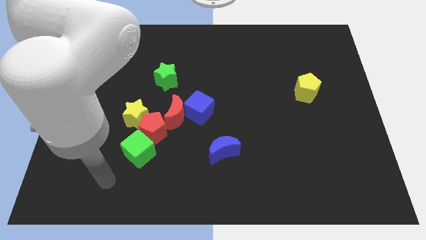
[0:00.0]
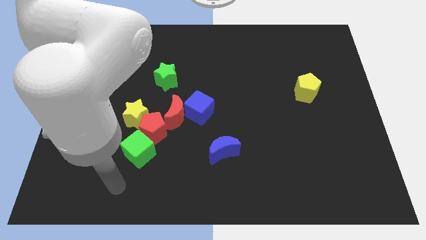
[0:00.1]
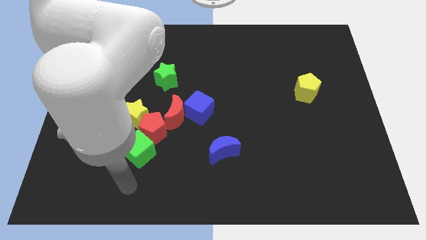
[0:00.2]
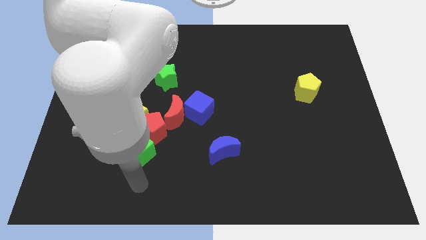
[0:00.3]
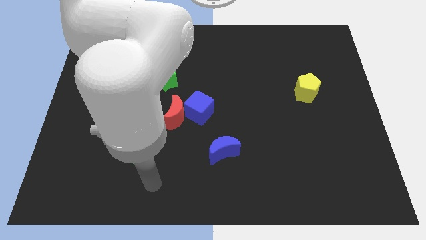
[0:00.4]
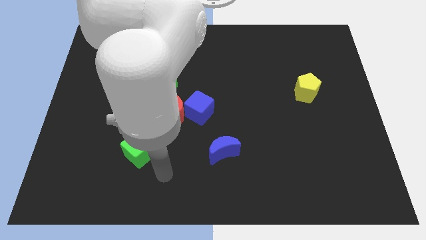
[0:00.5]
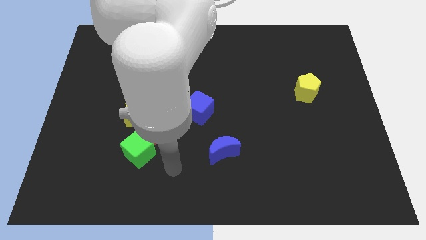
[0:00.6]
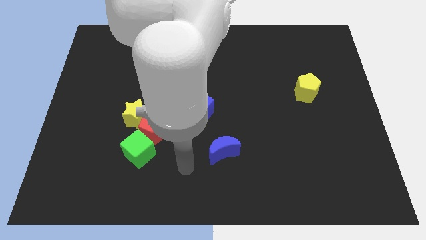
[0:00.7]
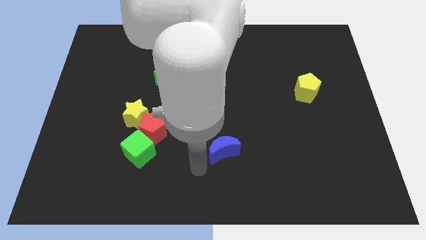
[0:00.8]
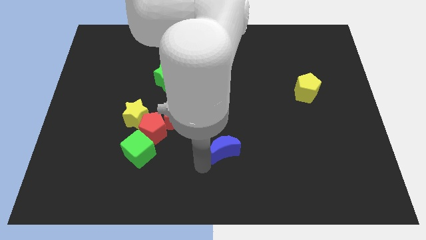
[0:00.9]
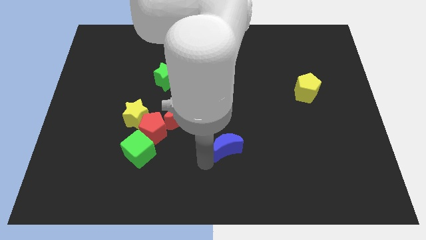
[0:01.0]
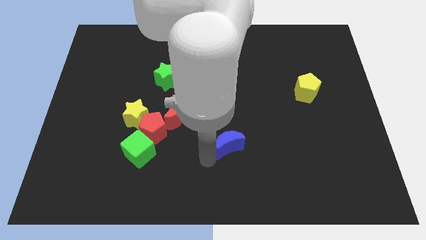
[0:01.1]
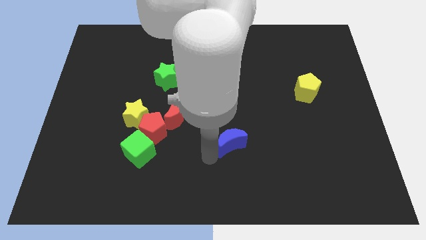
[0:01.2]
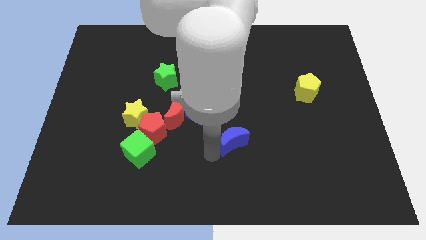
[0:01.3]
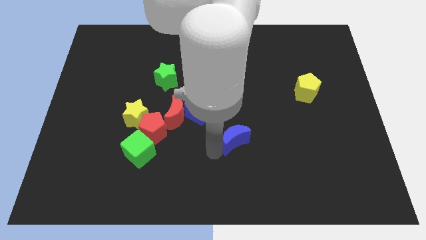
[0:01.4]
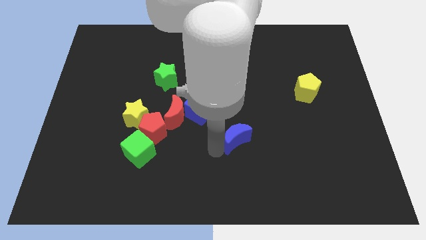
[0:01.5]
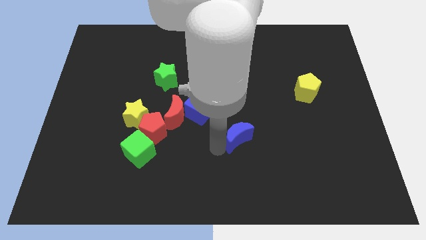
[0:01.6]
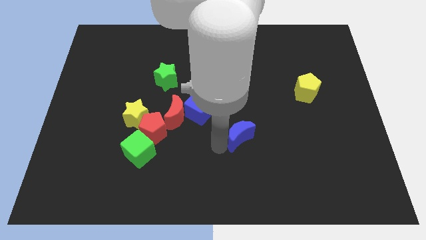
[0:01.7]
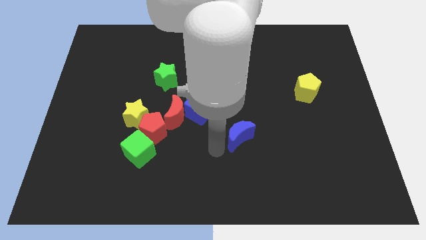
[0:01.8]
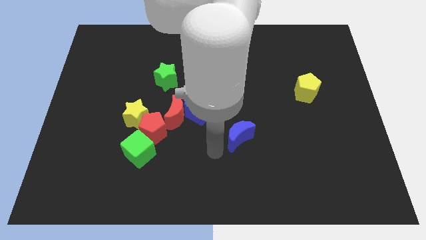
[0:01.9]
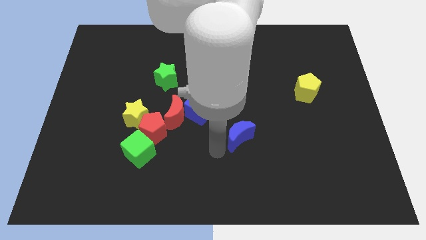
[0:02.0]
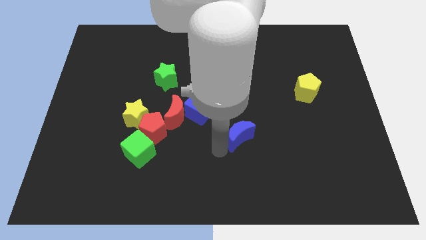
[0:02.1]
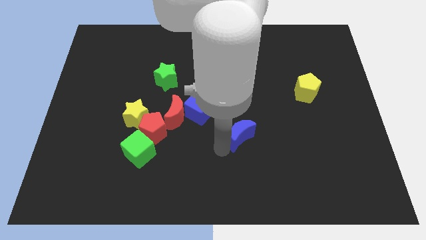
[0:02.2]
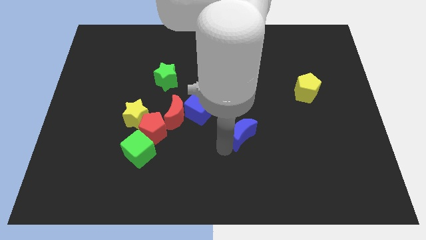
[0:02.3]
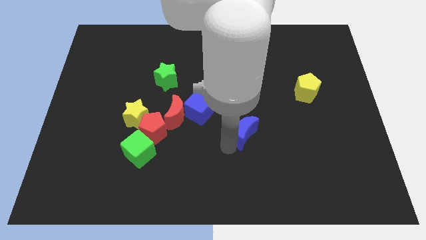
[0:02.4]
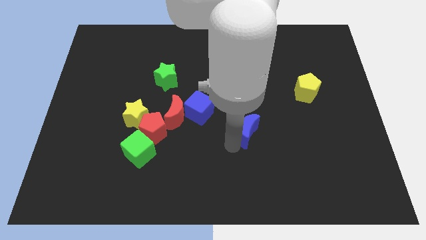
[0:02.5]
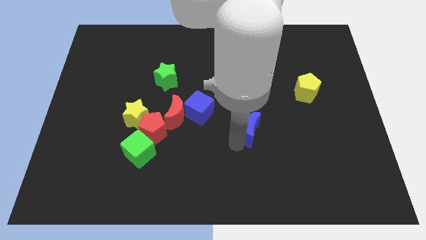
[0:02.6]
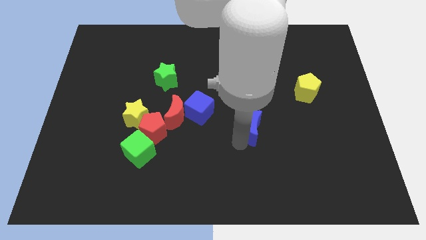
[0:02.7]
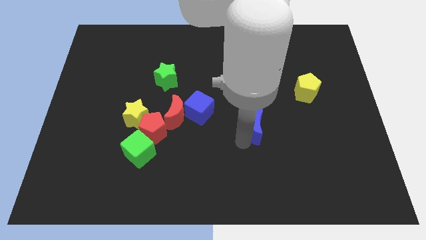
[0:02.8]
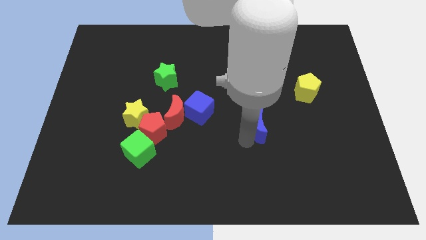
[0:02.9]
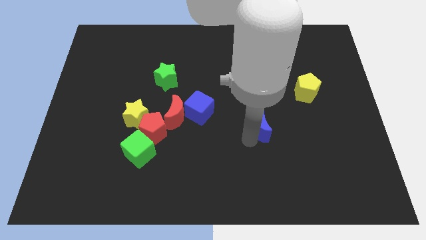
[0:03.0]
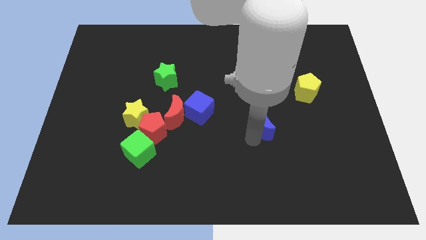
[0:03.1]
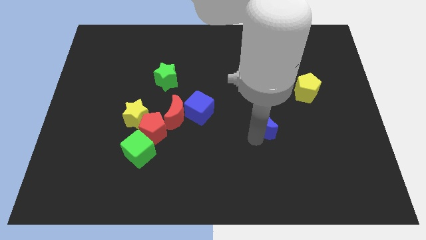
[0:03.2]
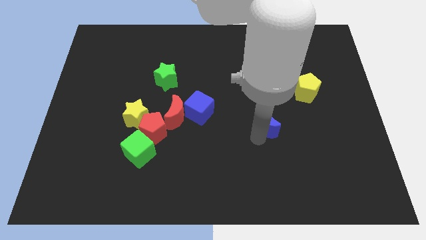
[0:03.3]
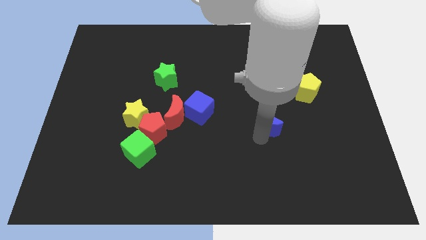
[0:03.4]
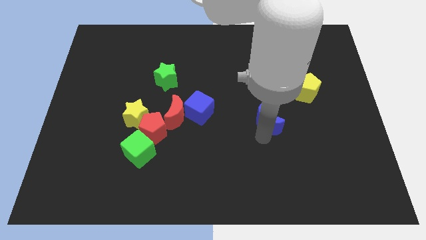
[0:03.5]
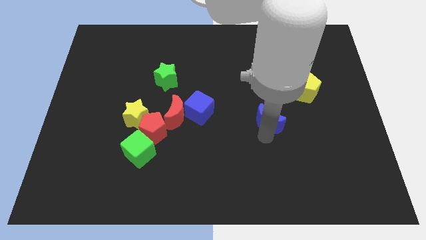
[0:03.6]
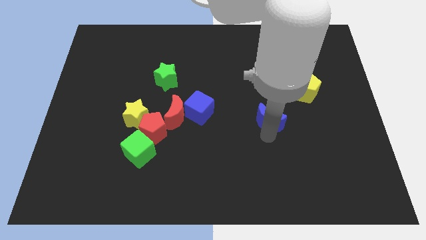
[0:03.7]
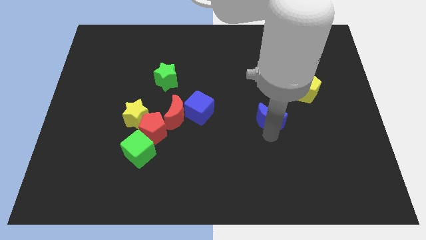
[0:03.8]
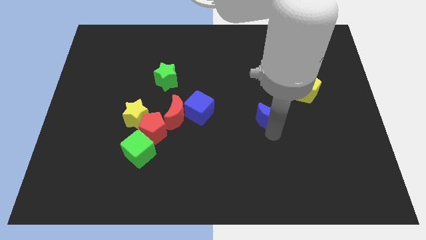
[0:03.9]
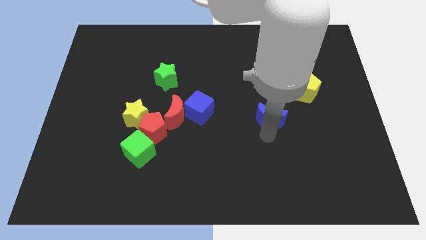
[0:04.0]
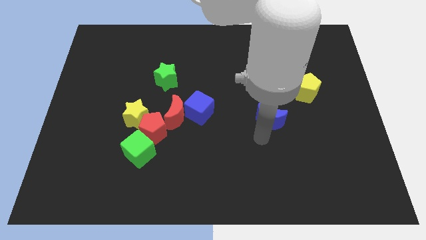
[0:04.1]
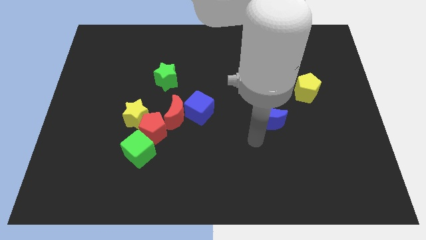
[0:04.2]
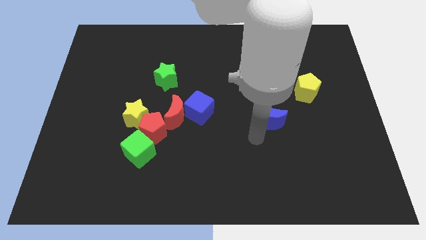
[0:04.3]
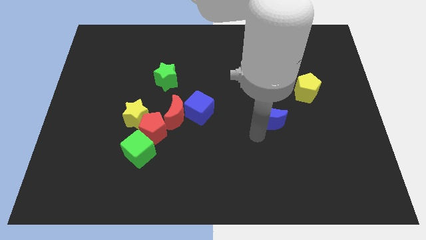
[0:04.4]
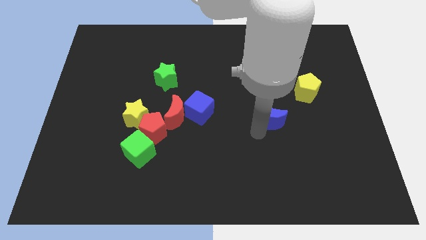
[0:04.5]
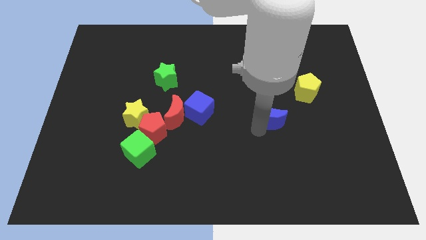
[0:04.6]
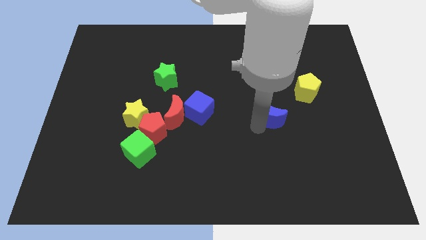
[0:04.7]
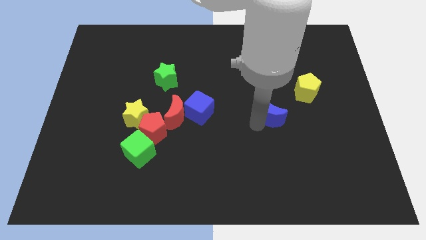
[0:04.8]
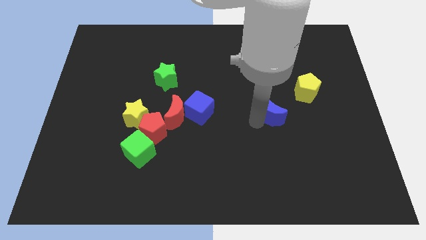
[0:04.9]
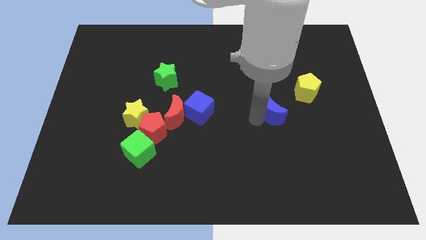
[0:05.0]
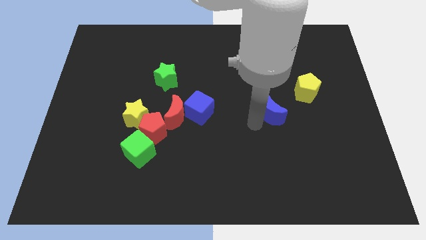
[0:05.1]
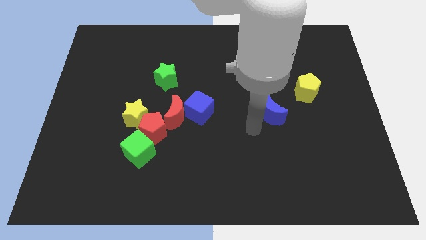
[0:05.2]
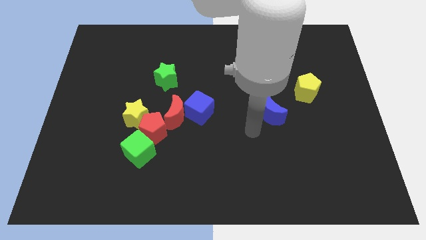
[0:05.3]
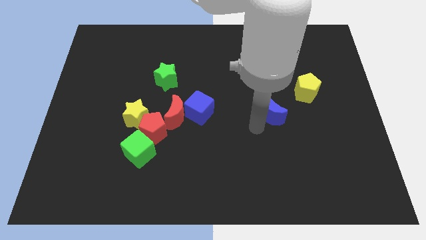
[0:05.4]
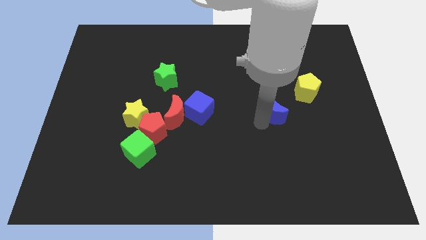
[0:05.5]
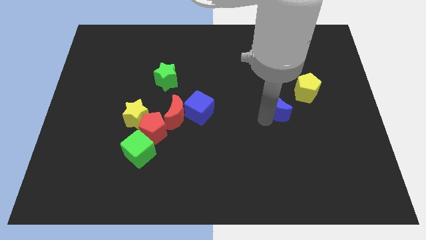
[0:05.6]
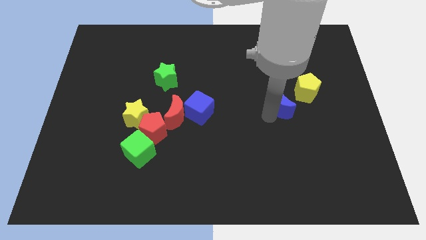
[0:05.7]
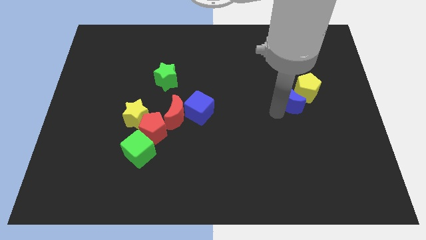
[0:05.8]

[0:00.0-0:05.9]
move the blue moon up and to the right

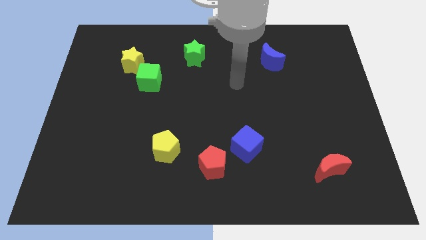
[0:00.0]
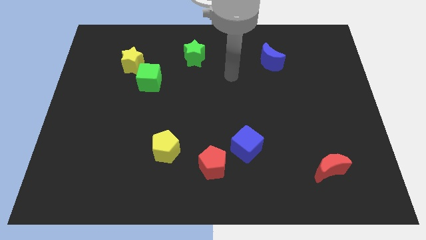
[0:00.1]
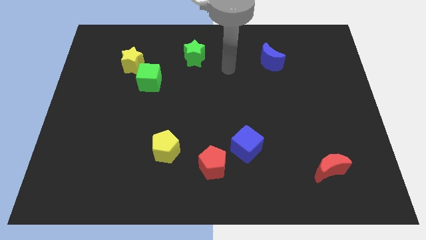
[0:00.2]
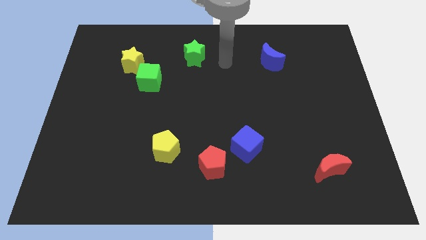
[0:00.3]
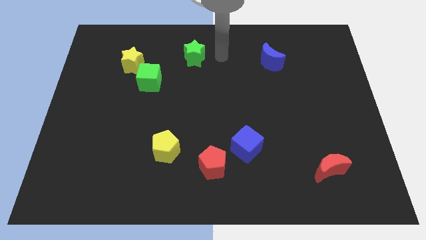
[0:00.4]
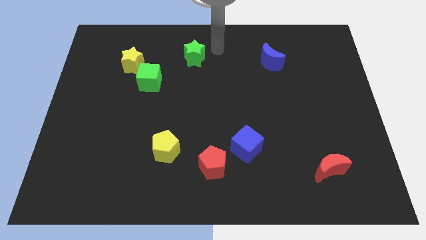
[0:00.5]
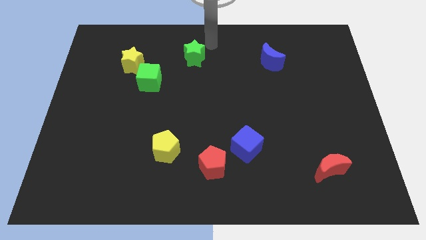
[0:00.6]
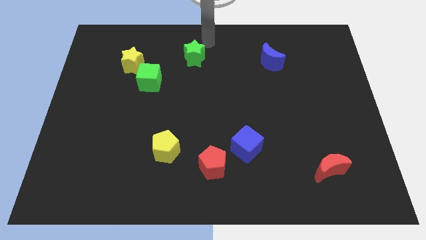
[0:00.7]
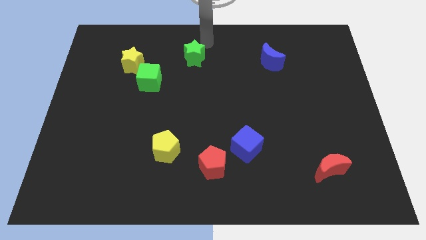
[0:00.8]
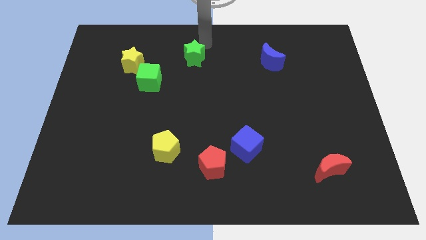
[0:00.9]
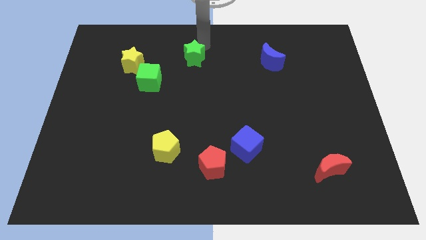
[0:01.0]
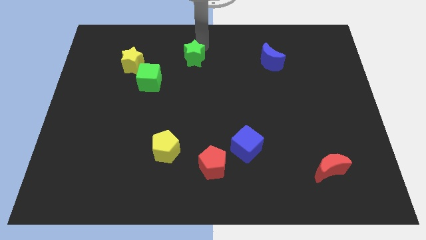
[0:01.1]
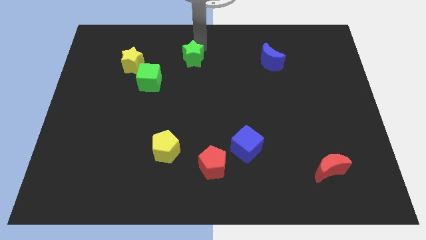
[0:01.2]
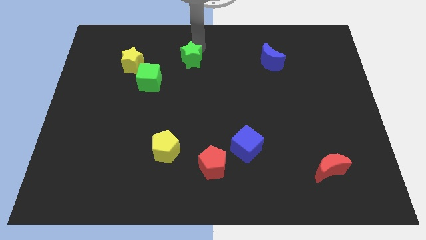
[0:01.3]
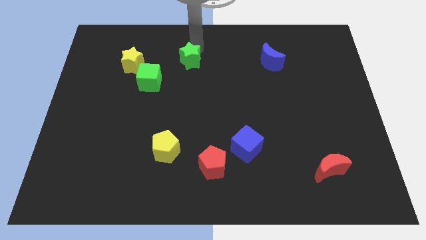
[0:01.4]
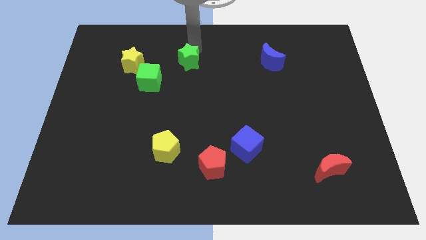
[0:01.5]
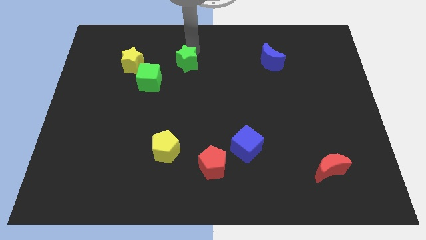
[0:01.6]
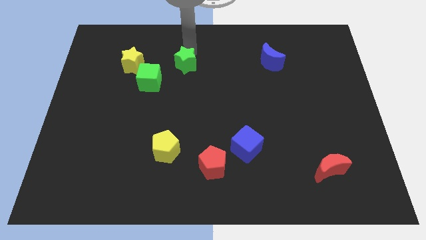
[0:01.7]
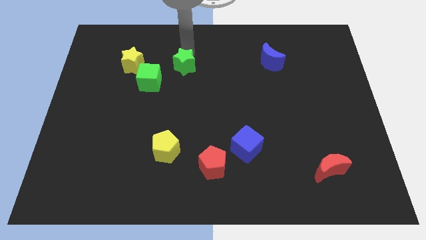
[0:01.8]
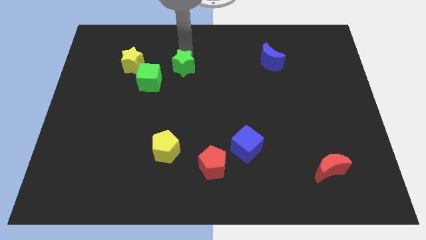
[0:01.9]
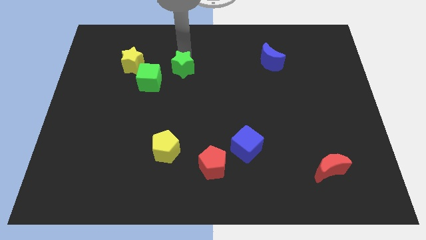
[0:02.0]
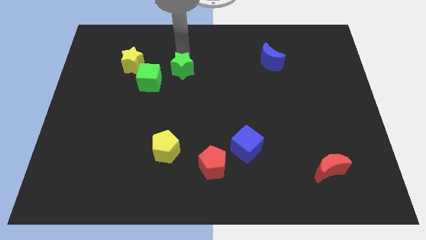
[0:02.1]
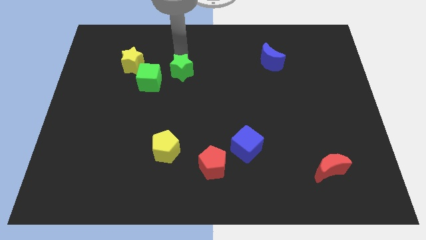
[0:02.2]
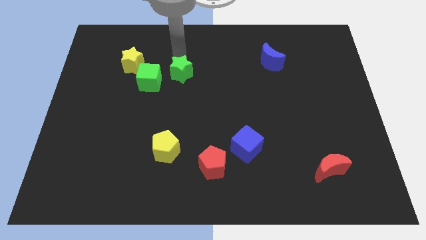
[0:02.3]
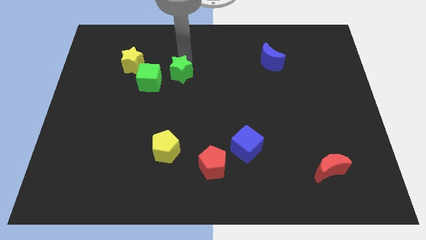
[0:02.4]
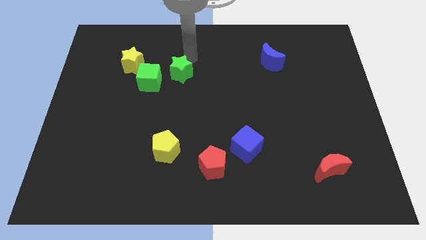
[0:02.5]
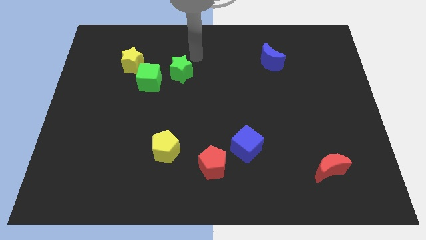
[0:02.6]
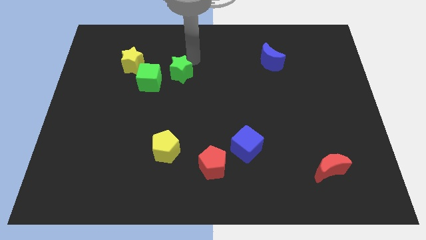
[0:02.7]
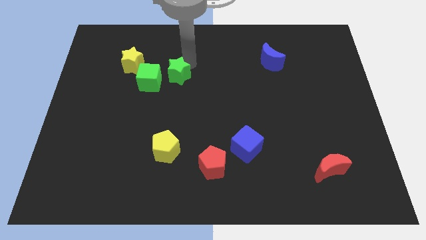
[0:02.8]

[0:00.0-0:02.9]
slide the green star a little bit diagonally down and left
